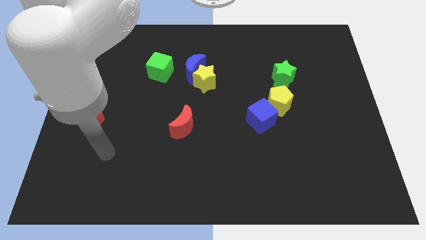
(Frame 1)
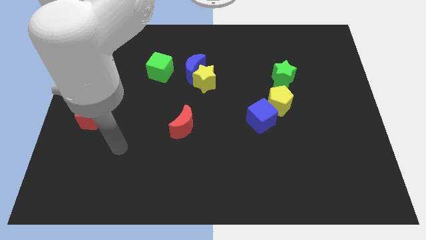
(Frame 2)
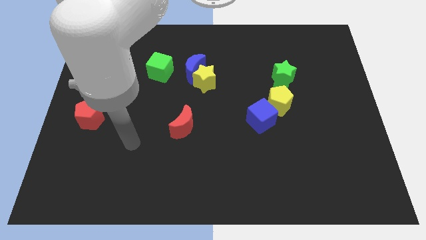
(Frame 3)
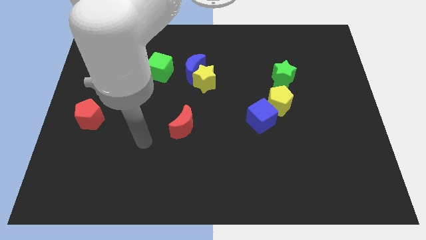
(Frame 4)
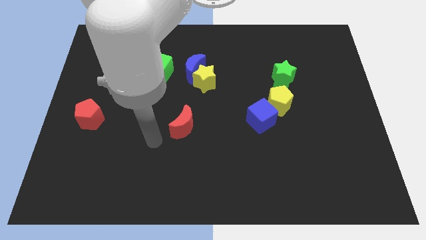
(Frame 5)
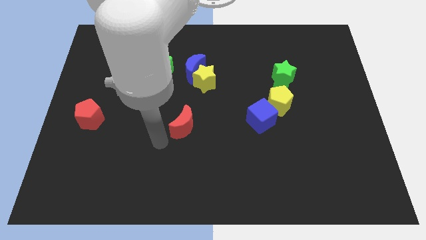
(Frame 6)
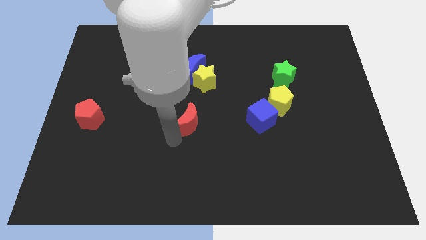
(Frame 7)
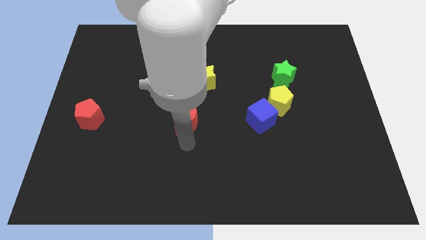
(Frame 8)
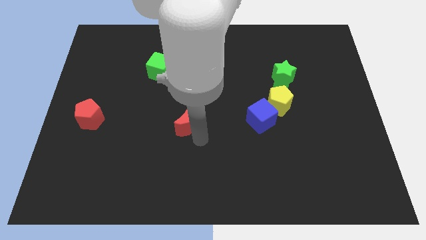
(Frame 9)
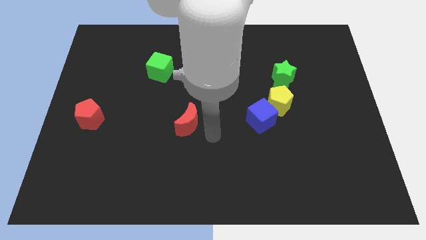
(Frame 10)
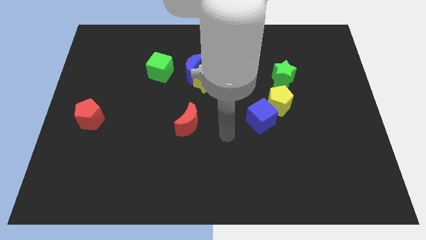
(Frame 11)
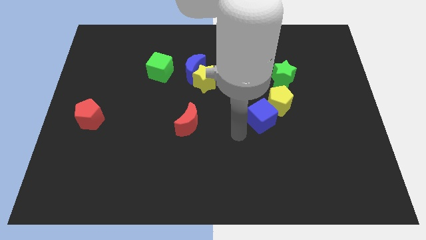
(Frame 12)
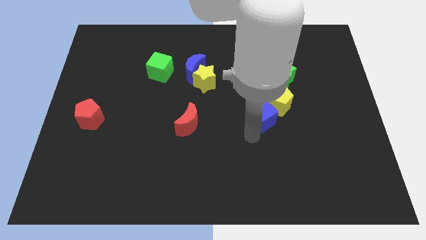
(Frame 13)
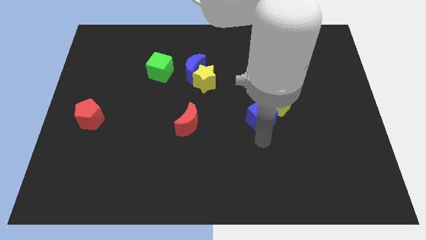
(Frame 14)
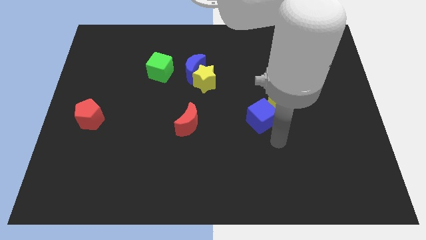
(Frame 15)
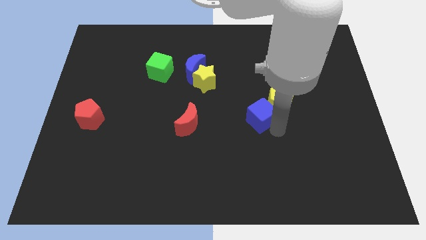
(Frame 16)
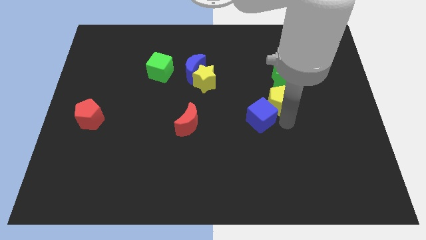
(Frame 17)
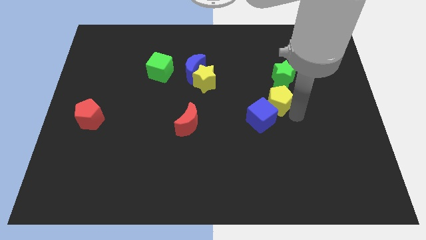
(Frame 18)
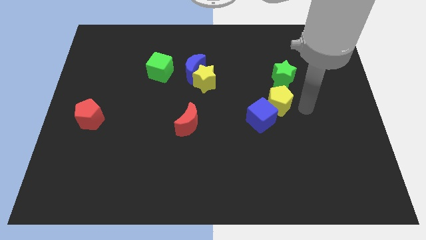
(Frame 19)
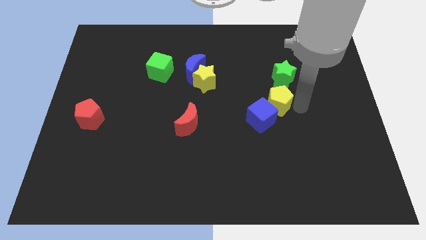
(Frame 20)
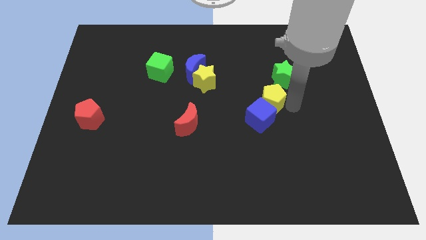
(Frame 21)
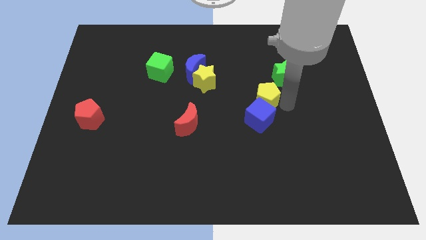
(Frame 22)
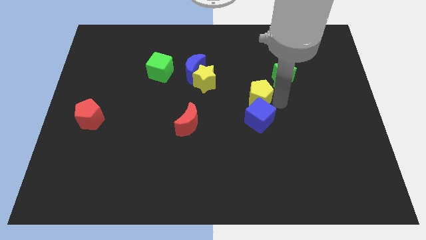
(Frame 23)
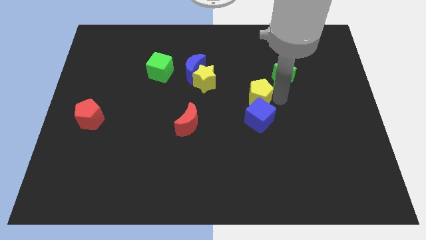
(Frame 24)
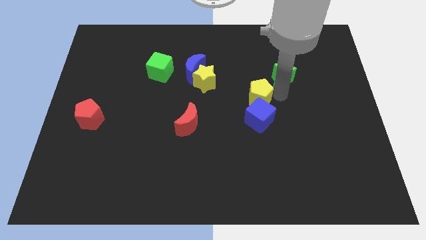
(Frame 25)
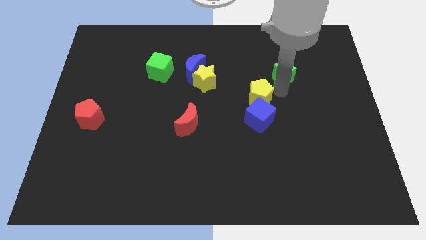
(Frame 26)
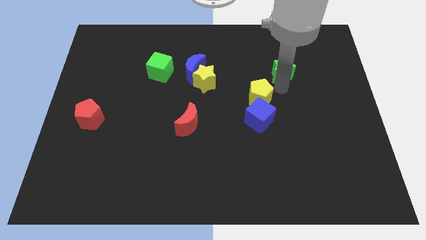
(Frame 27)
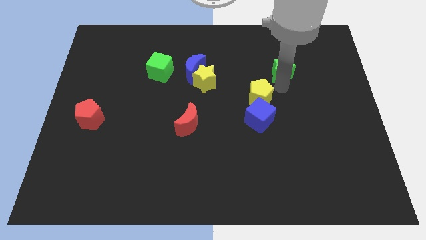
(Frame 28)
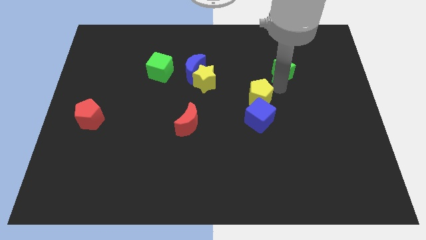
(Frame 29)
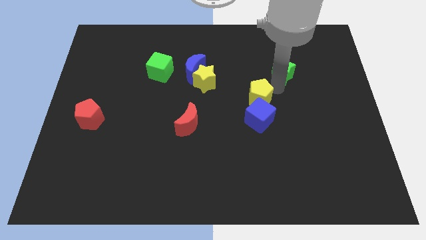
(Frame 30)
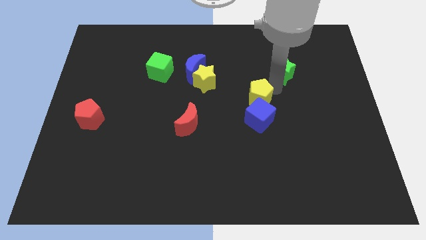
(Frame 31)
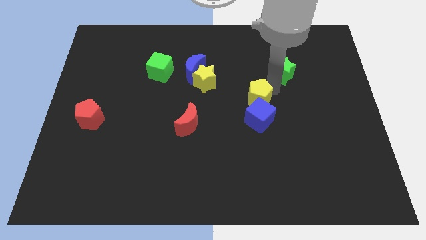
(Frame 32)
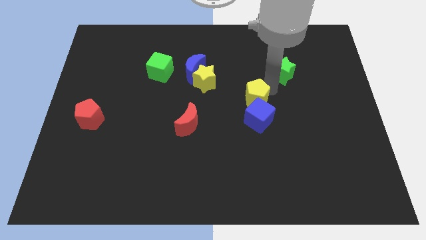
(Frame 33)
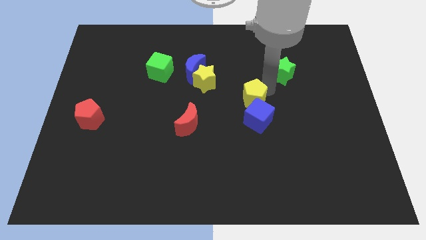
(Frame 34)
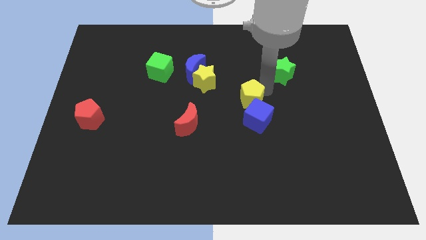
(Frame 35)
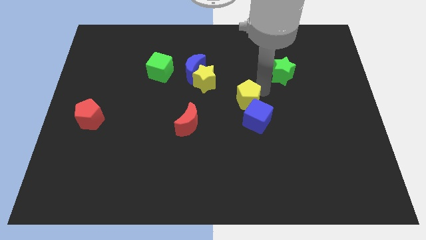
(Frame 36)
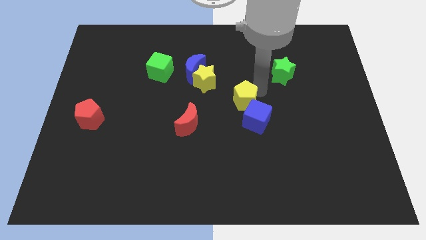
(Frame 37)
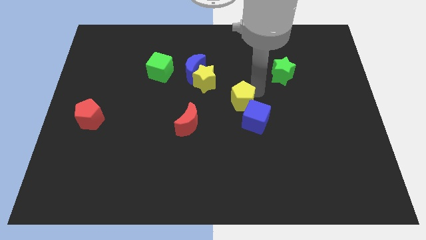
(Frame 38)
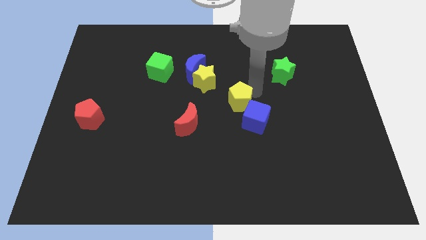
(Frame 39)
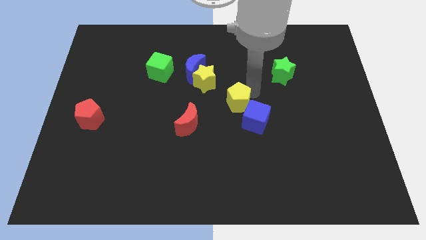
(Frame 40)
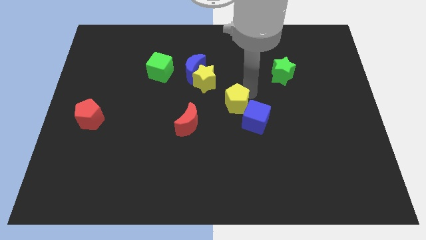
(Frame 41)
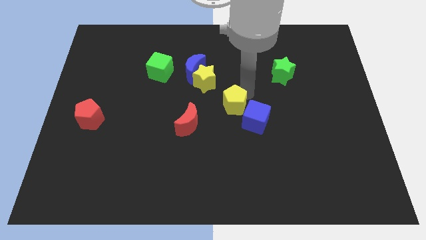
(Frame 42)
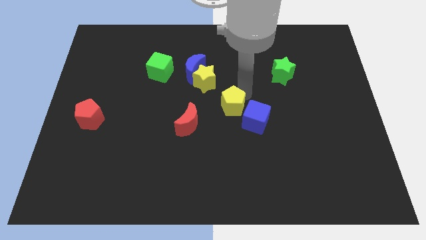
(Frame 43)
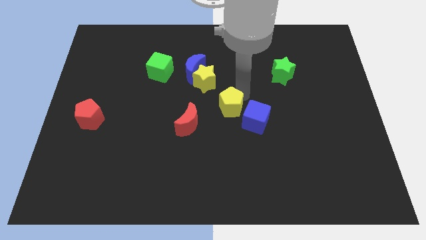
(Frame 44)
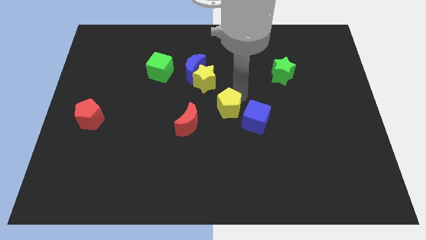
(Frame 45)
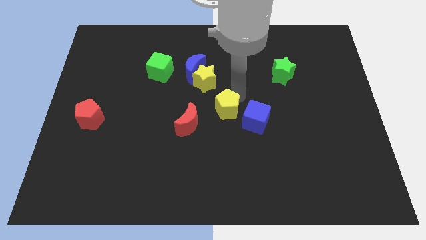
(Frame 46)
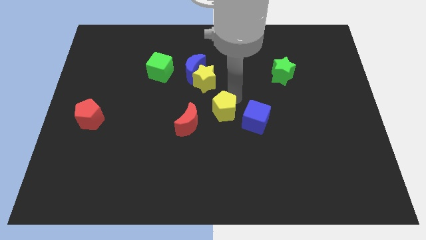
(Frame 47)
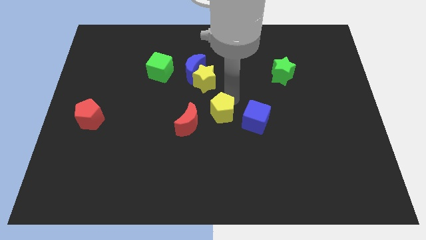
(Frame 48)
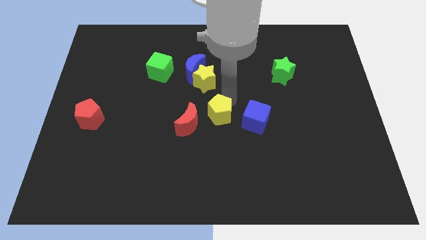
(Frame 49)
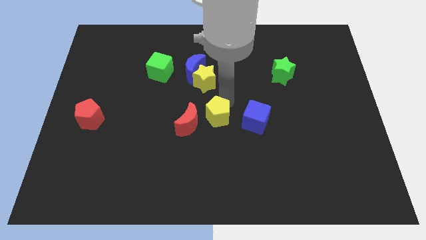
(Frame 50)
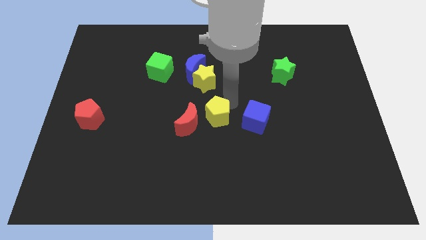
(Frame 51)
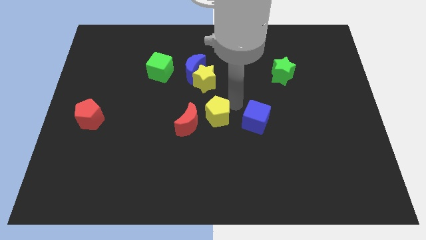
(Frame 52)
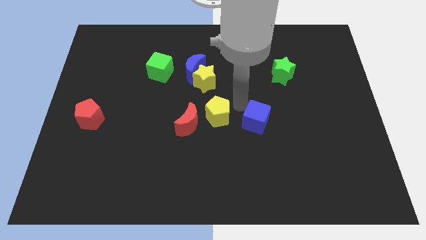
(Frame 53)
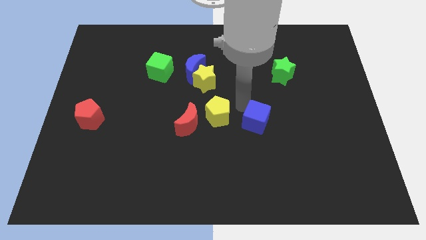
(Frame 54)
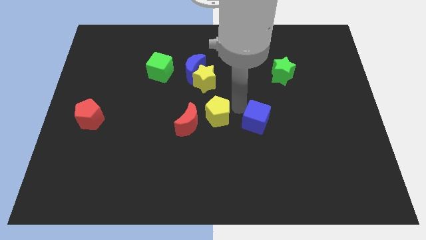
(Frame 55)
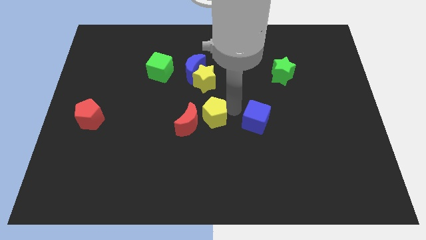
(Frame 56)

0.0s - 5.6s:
slide the yellow pentagon towards the red moon

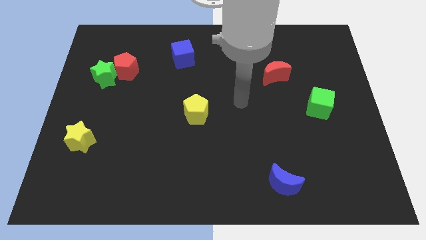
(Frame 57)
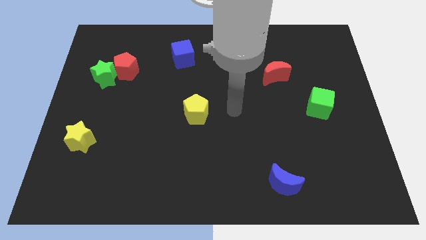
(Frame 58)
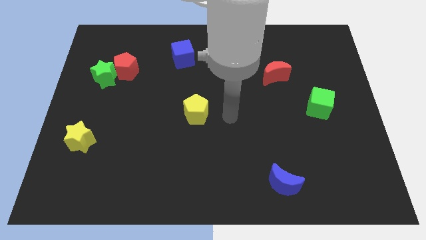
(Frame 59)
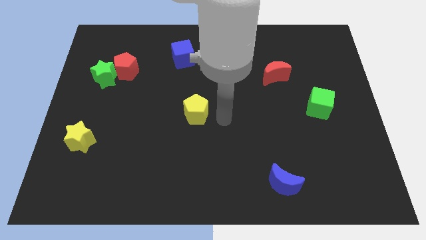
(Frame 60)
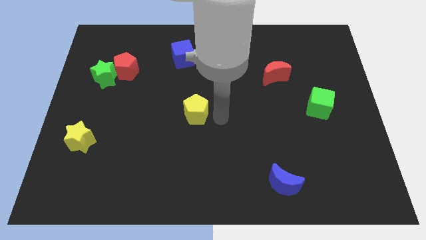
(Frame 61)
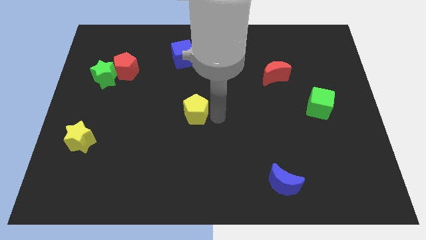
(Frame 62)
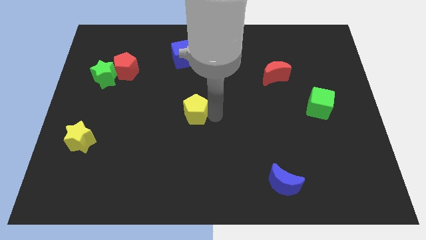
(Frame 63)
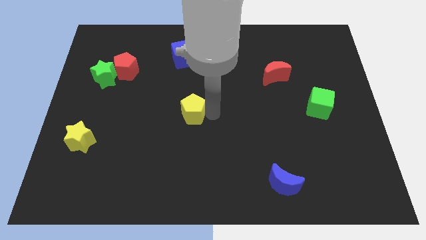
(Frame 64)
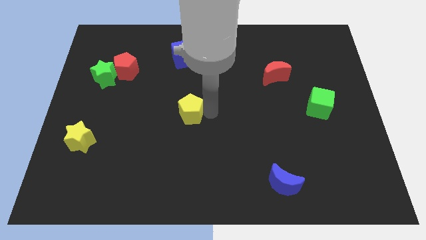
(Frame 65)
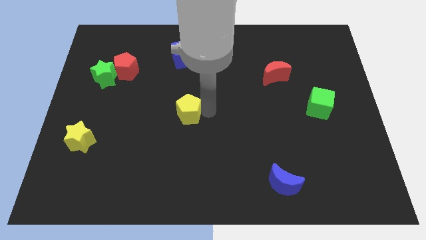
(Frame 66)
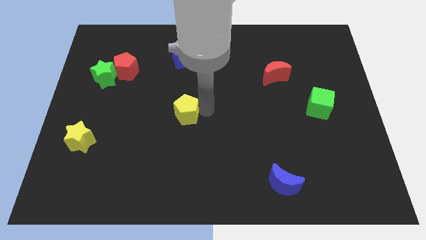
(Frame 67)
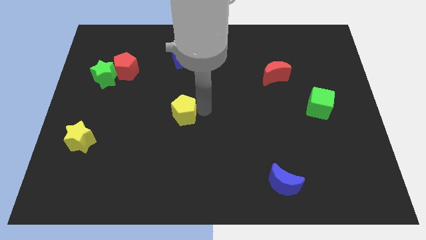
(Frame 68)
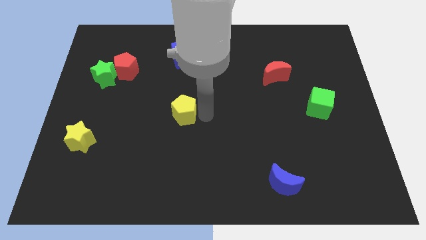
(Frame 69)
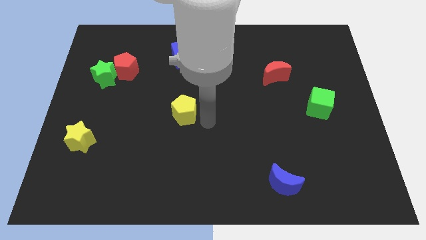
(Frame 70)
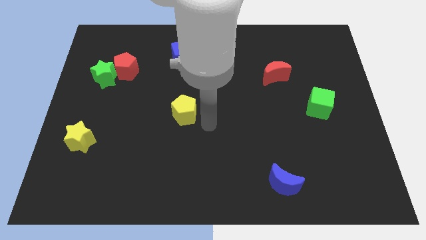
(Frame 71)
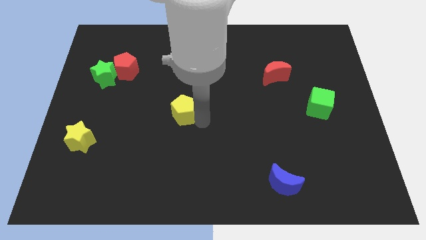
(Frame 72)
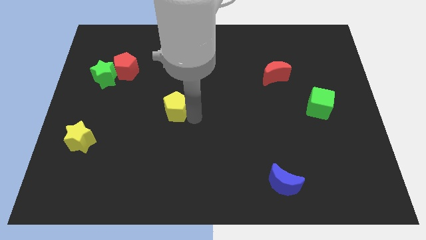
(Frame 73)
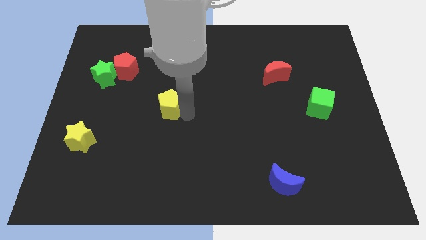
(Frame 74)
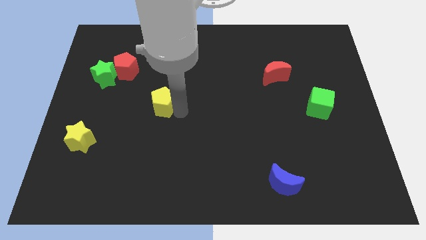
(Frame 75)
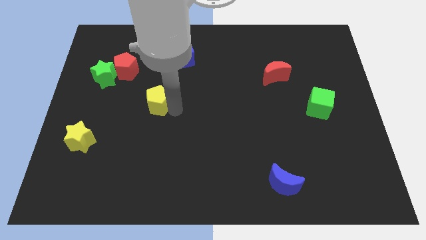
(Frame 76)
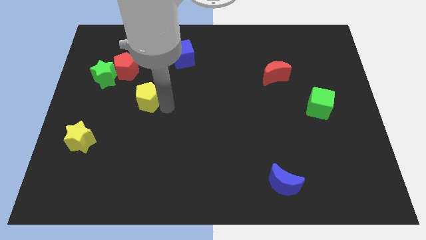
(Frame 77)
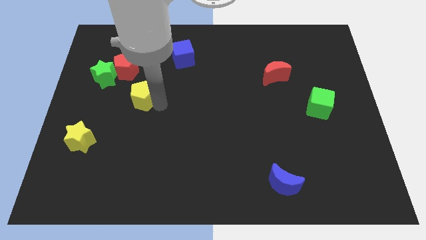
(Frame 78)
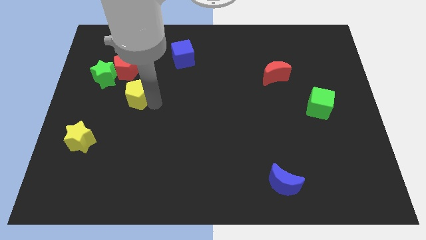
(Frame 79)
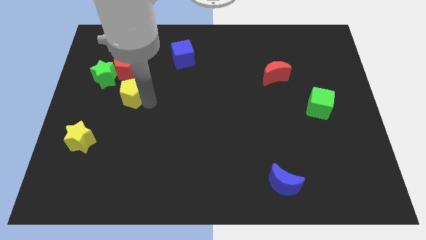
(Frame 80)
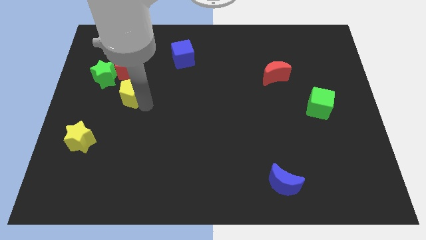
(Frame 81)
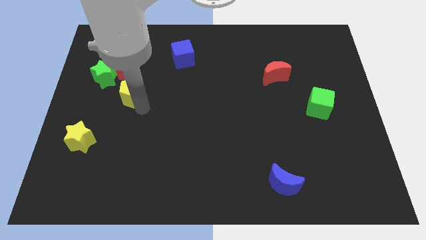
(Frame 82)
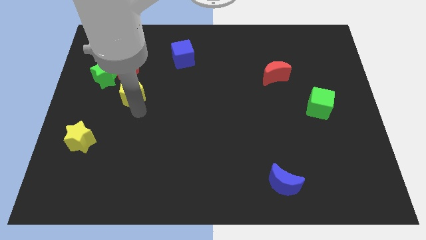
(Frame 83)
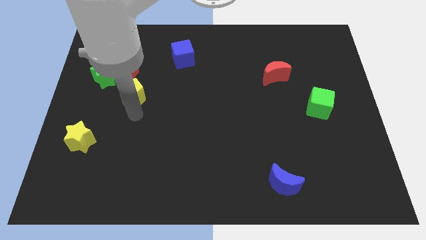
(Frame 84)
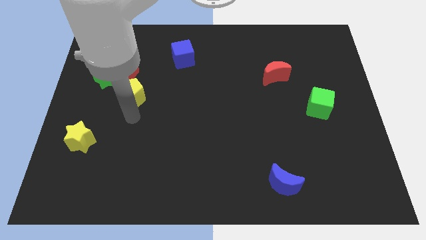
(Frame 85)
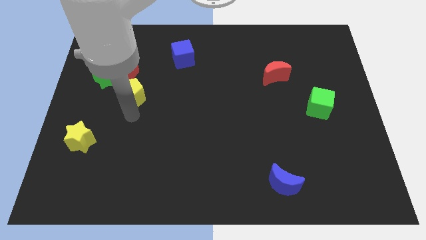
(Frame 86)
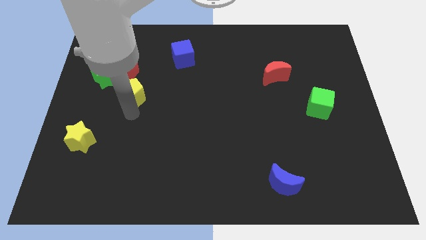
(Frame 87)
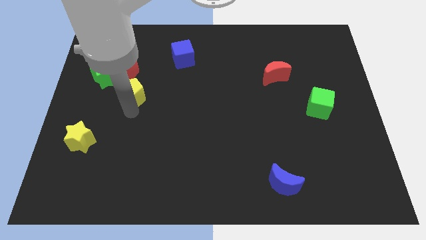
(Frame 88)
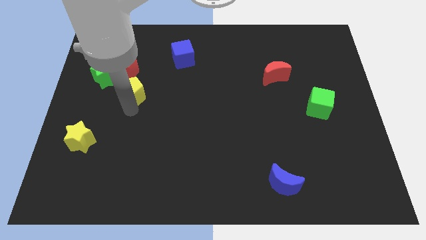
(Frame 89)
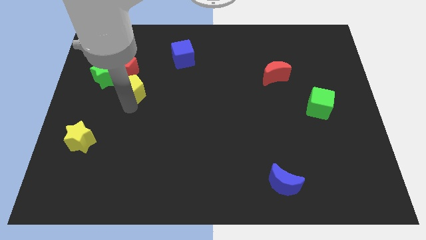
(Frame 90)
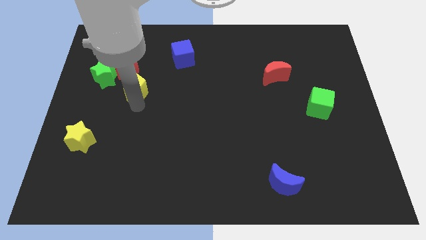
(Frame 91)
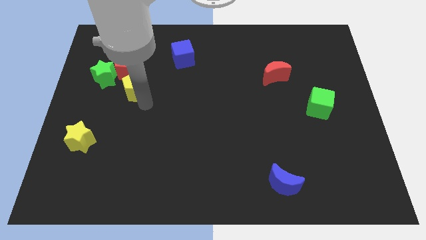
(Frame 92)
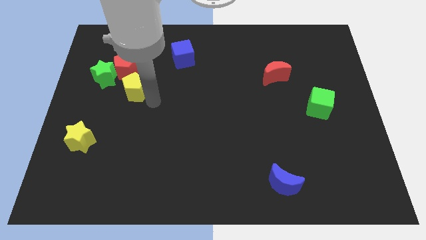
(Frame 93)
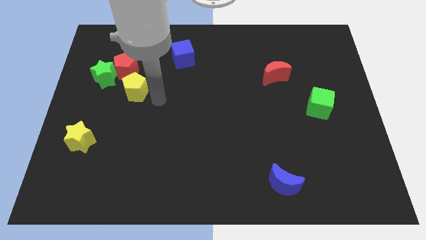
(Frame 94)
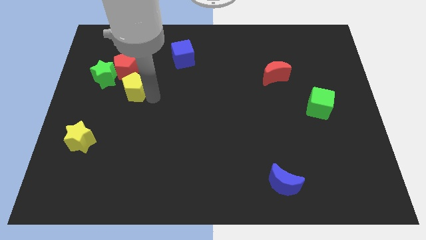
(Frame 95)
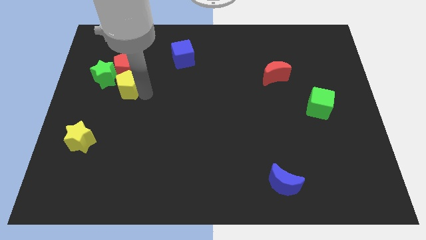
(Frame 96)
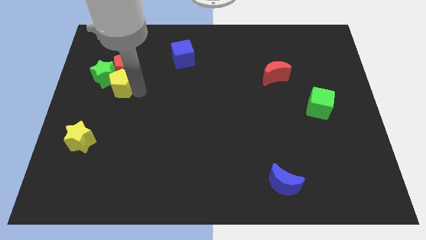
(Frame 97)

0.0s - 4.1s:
put the yellow pentagon close to the green star
